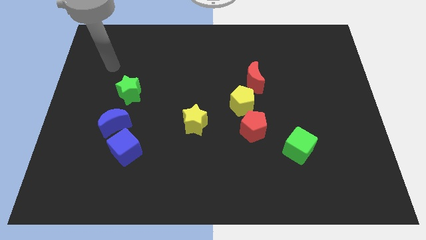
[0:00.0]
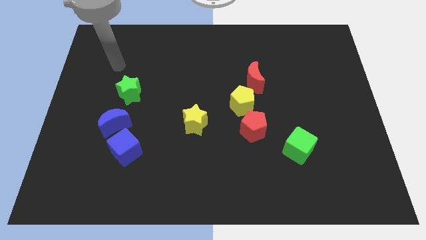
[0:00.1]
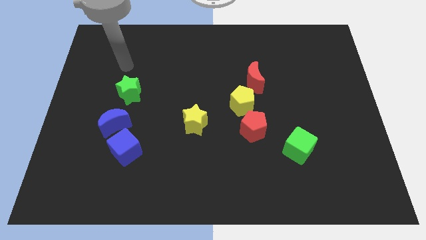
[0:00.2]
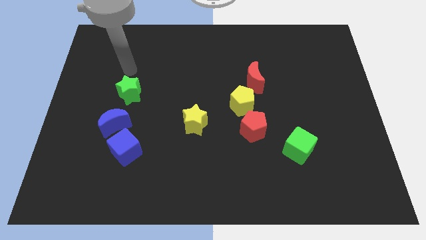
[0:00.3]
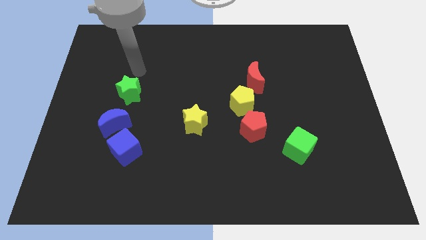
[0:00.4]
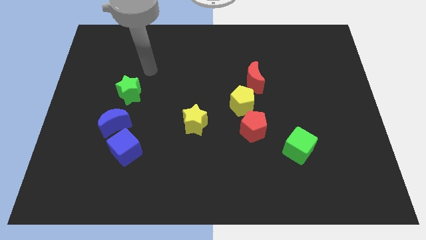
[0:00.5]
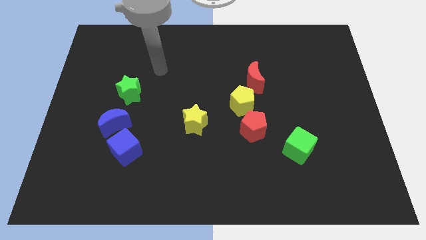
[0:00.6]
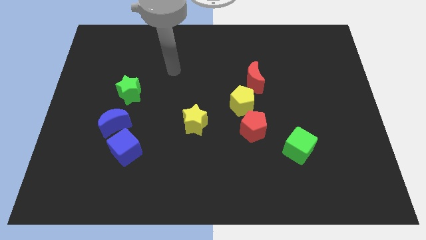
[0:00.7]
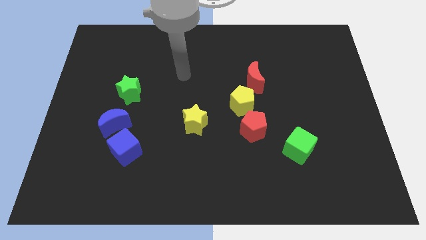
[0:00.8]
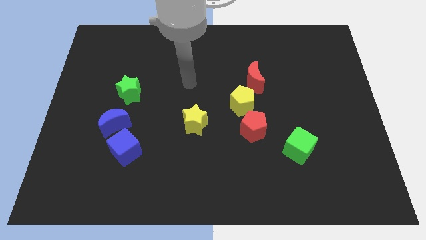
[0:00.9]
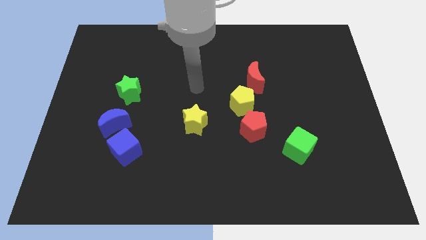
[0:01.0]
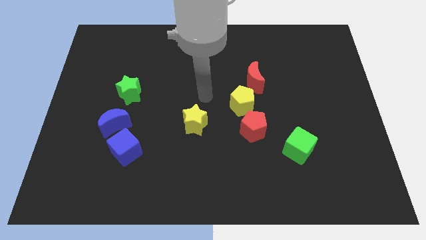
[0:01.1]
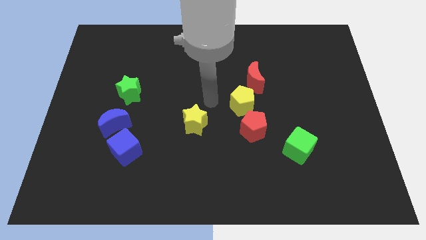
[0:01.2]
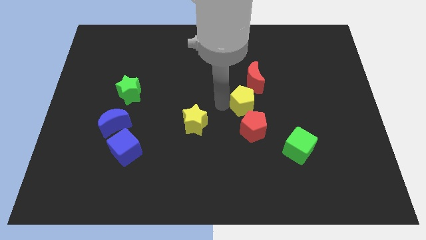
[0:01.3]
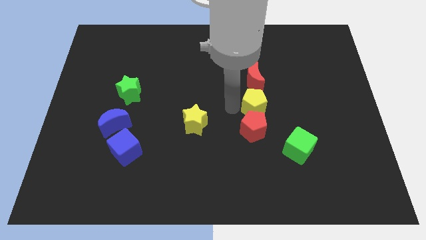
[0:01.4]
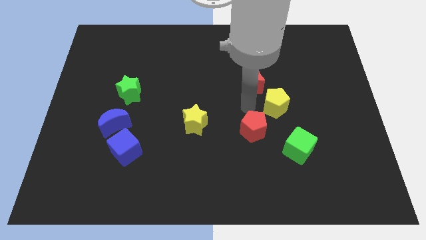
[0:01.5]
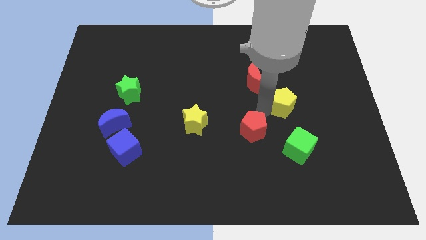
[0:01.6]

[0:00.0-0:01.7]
separate the red pentagon from the yellow pentagon

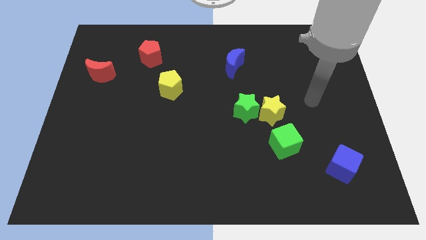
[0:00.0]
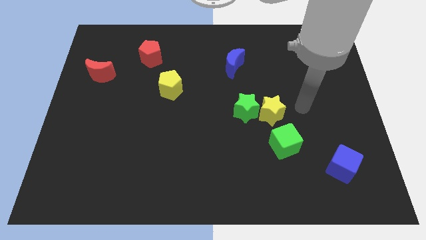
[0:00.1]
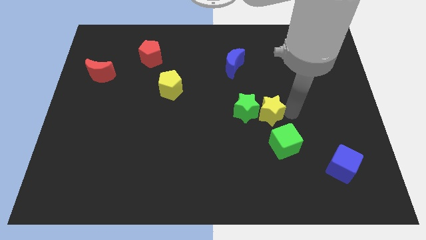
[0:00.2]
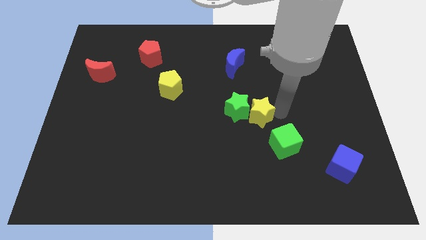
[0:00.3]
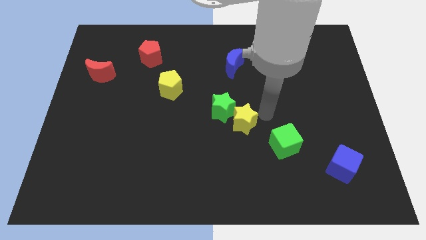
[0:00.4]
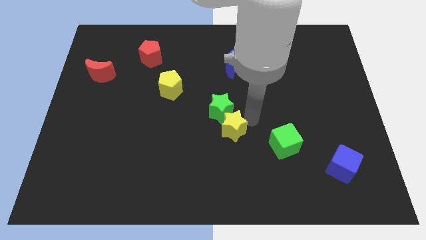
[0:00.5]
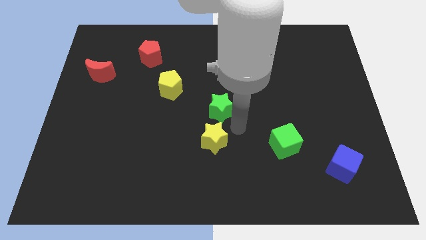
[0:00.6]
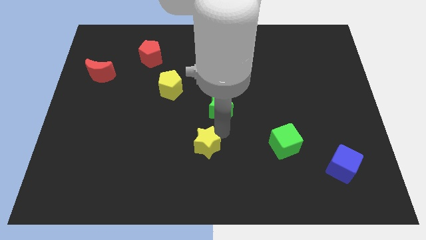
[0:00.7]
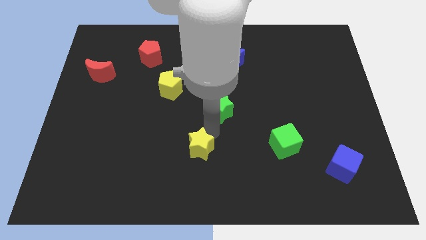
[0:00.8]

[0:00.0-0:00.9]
separate the green star from the yellow star

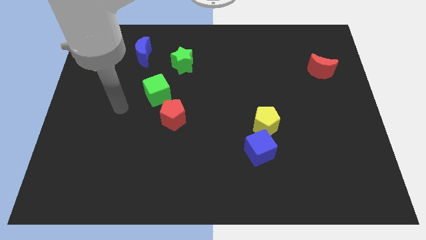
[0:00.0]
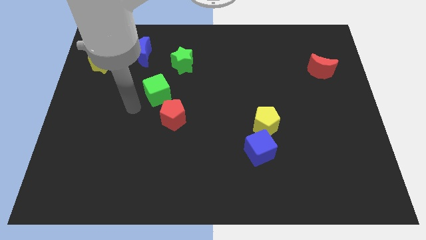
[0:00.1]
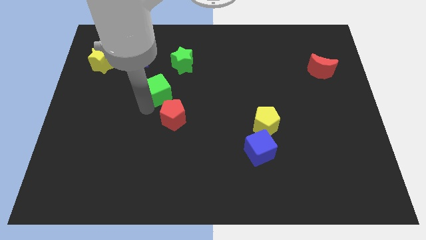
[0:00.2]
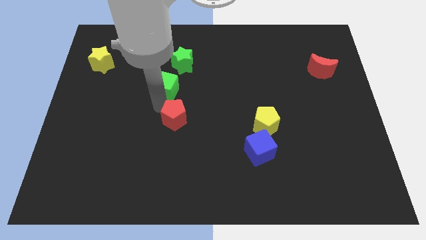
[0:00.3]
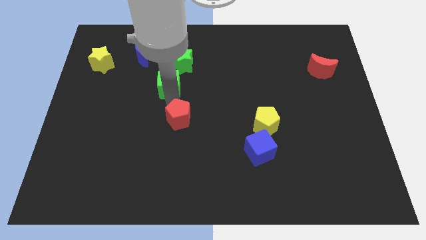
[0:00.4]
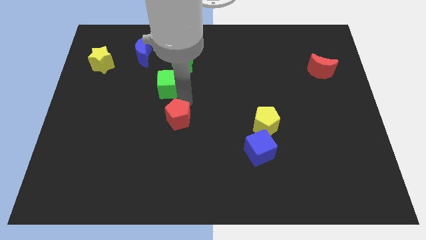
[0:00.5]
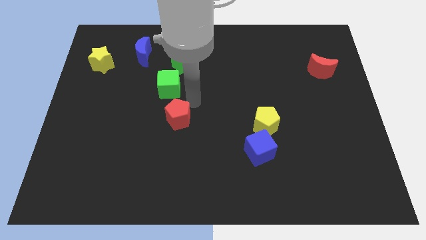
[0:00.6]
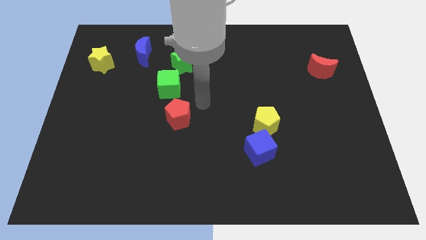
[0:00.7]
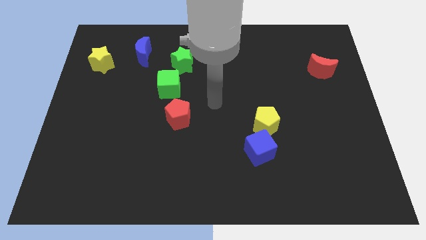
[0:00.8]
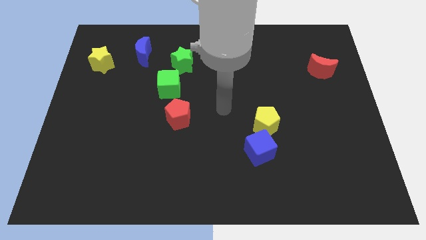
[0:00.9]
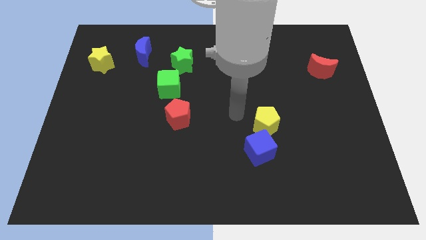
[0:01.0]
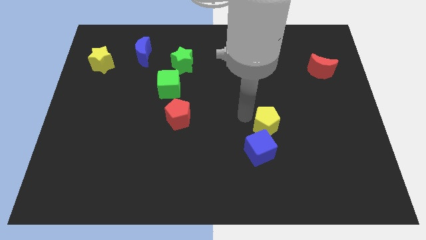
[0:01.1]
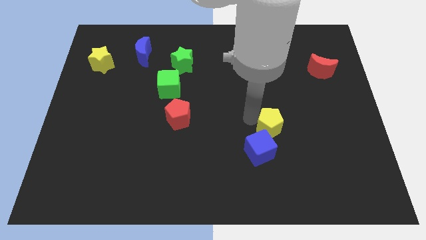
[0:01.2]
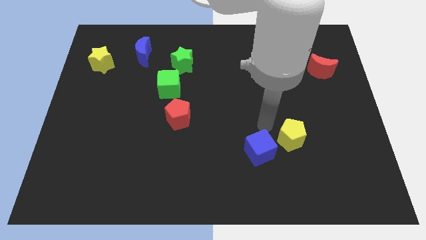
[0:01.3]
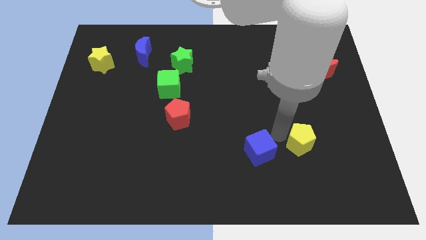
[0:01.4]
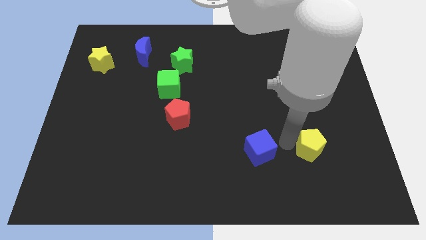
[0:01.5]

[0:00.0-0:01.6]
move the blue cube away from the yellow pentagon

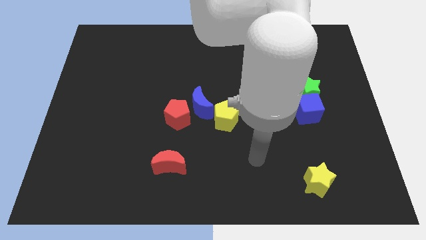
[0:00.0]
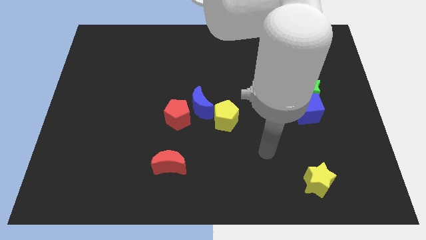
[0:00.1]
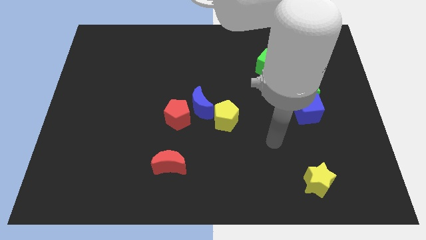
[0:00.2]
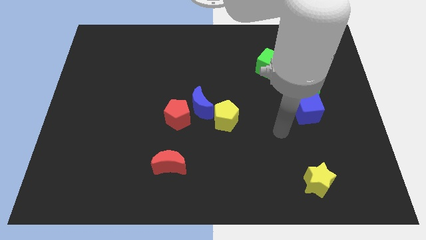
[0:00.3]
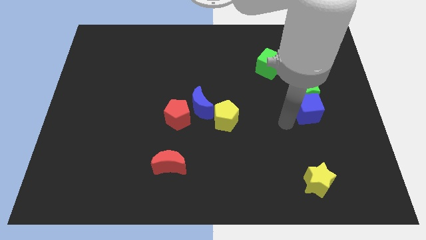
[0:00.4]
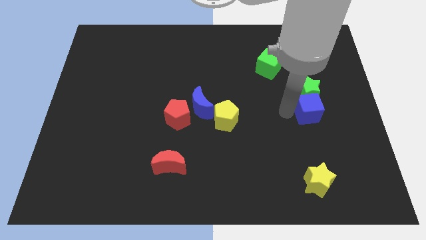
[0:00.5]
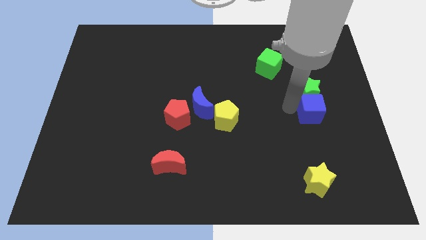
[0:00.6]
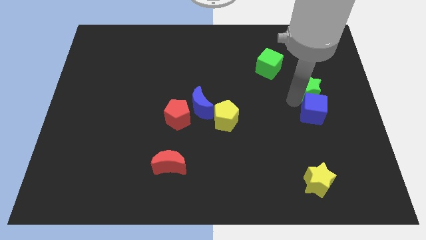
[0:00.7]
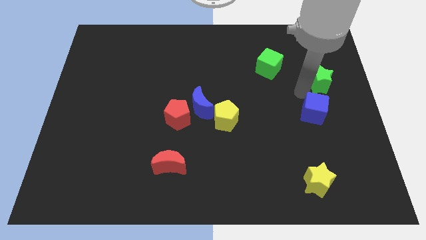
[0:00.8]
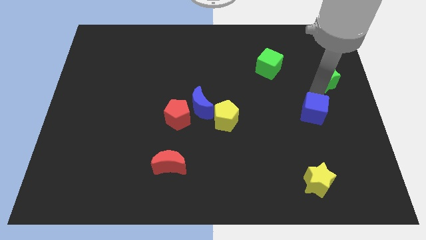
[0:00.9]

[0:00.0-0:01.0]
pull the blue cube apart from the green star

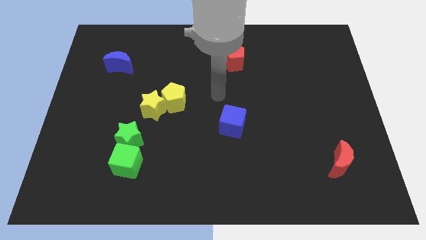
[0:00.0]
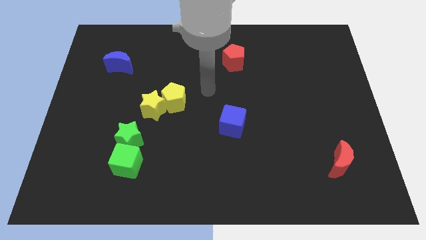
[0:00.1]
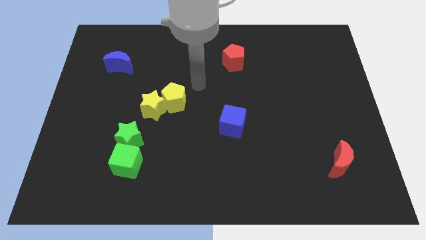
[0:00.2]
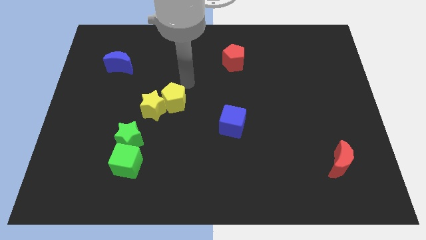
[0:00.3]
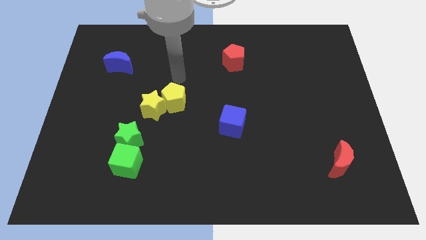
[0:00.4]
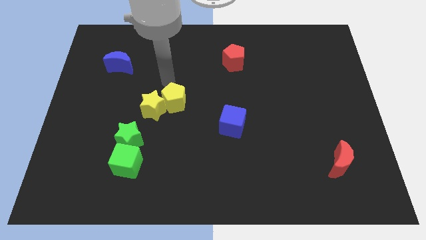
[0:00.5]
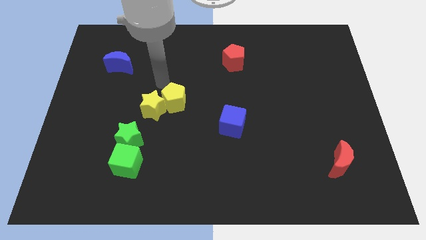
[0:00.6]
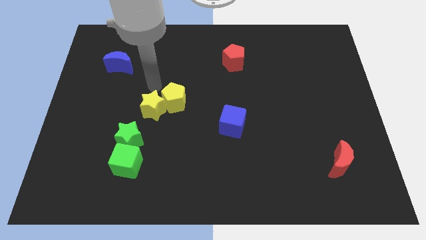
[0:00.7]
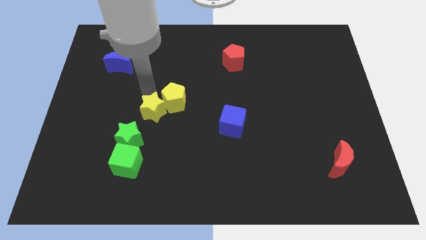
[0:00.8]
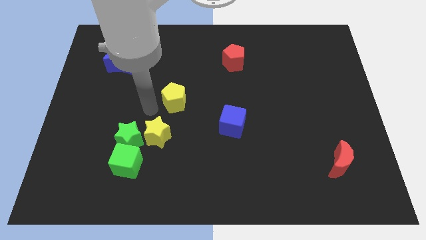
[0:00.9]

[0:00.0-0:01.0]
move the yellow pentagon away from the yellow star

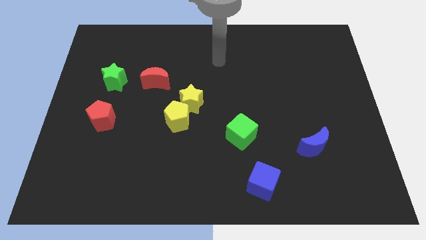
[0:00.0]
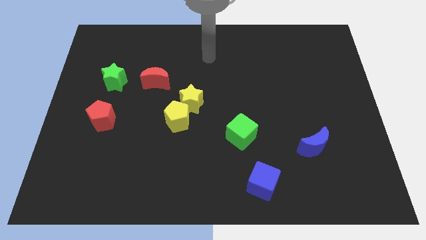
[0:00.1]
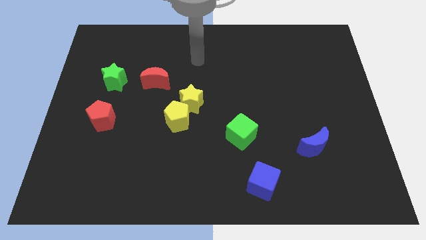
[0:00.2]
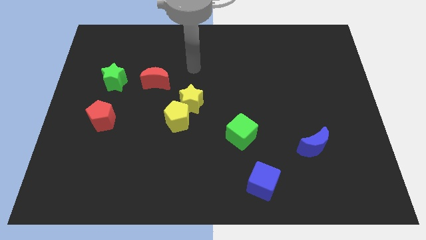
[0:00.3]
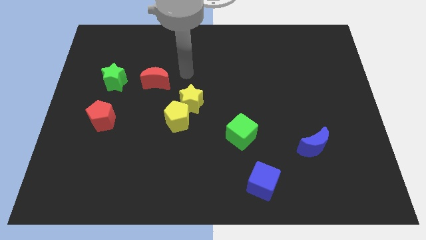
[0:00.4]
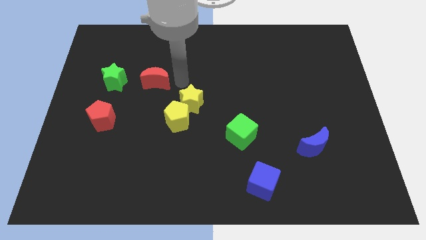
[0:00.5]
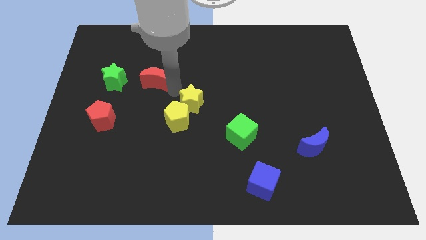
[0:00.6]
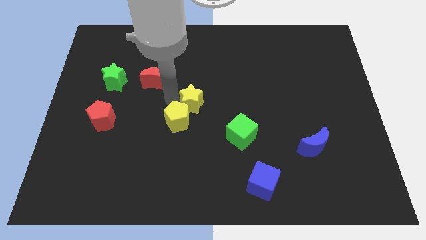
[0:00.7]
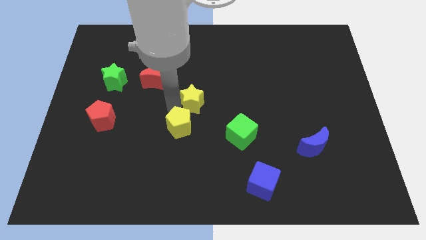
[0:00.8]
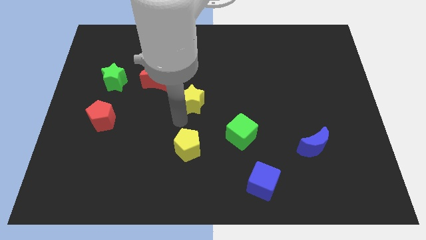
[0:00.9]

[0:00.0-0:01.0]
pull the yellow star apart from the yellow pentagon

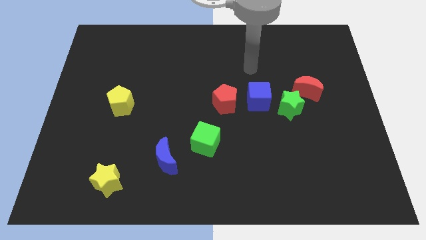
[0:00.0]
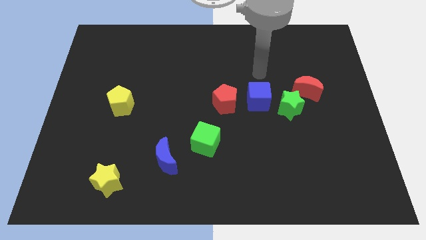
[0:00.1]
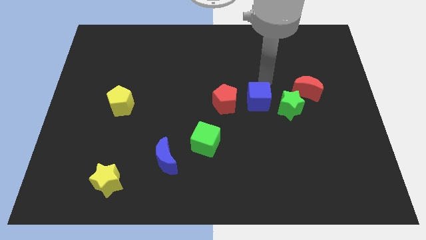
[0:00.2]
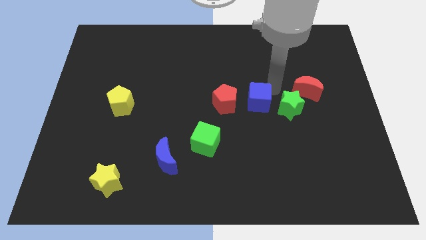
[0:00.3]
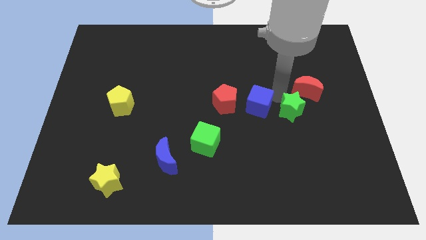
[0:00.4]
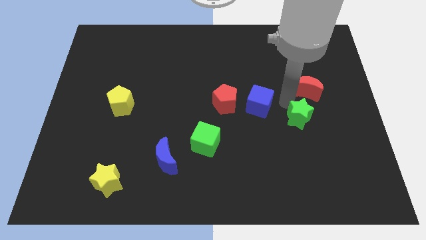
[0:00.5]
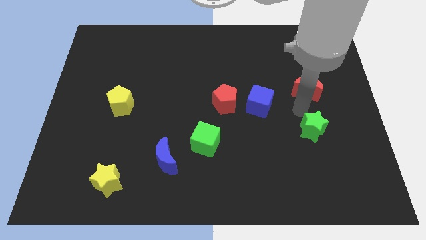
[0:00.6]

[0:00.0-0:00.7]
move the red moon away from the green star

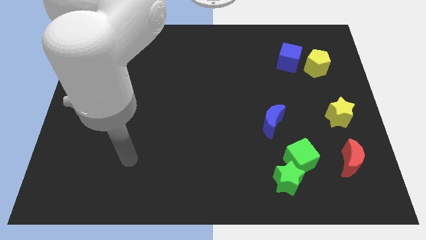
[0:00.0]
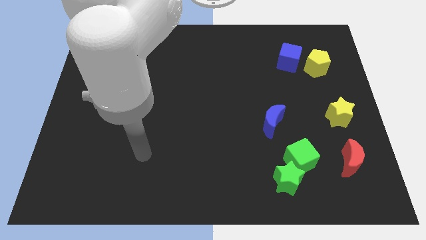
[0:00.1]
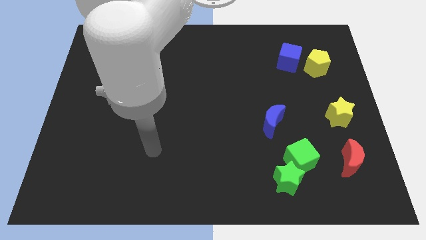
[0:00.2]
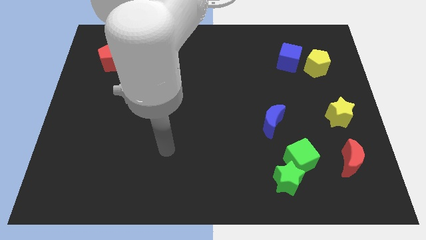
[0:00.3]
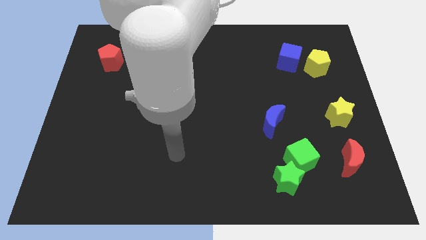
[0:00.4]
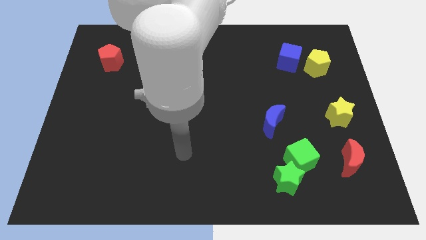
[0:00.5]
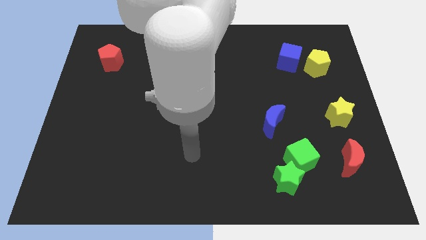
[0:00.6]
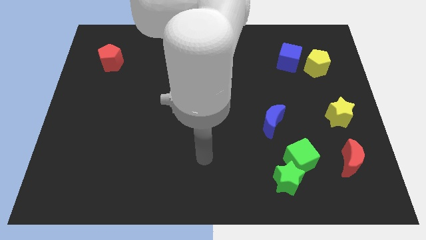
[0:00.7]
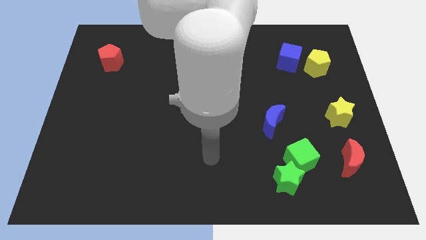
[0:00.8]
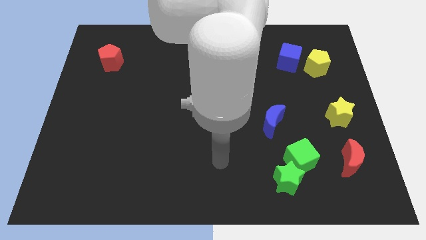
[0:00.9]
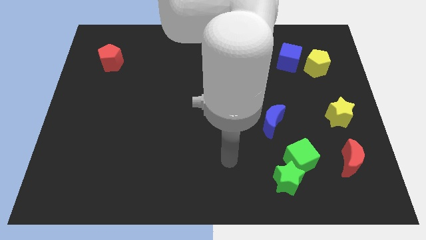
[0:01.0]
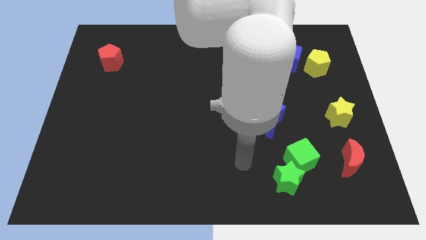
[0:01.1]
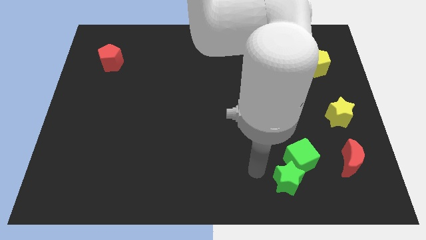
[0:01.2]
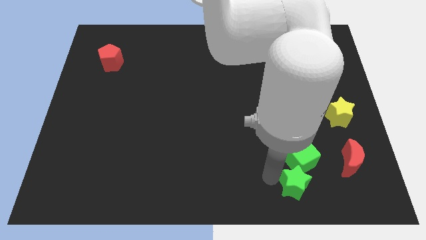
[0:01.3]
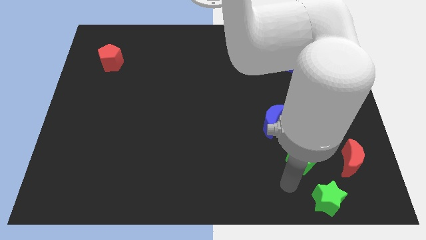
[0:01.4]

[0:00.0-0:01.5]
separate the green cube from the green star
